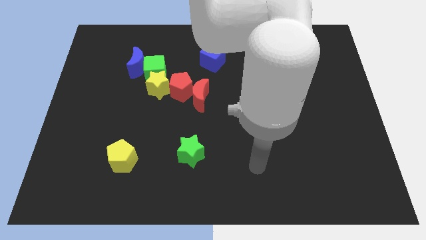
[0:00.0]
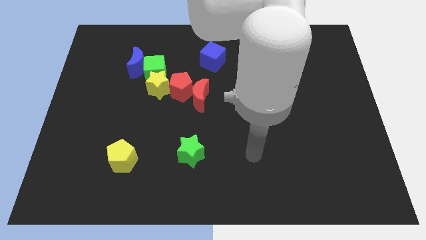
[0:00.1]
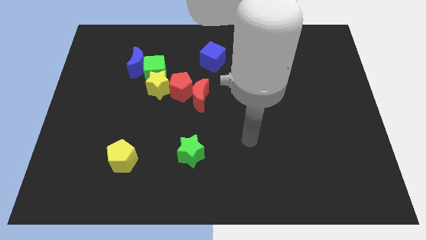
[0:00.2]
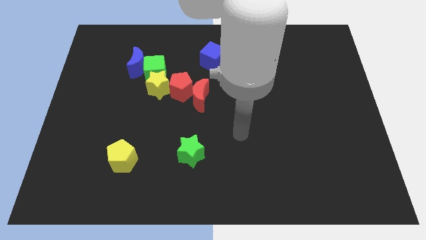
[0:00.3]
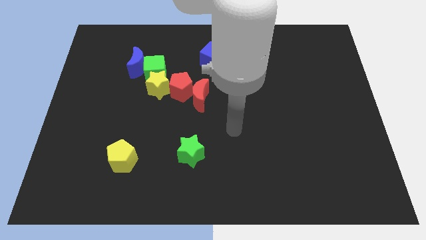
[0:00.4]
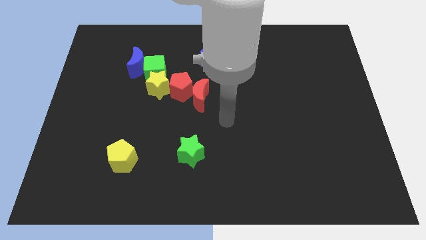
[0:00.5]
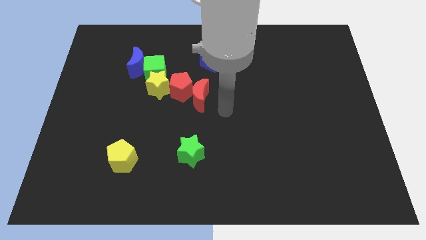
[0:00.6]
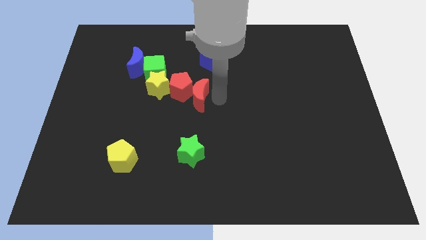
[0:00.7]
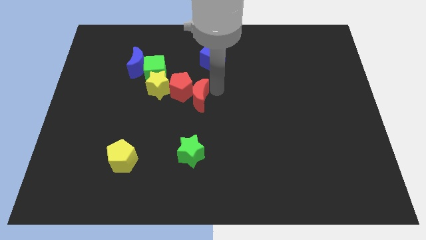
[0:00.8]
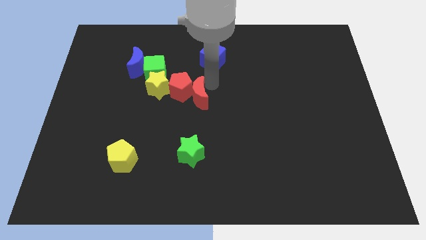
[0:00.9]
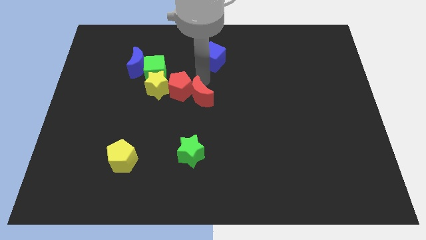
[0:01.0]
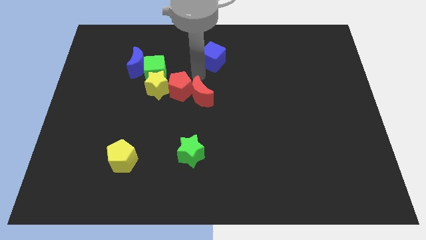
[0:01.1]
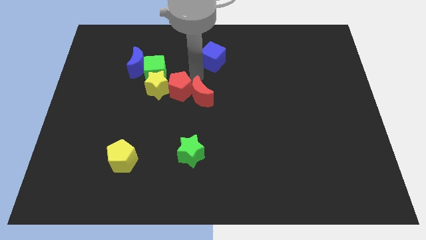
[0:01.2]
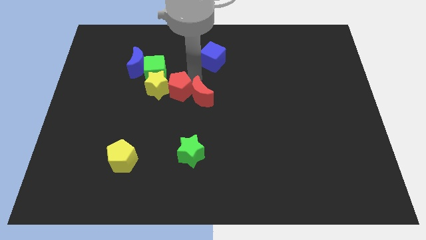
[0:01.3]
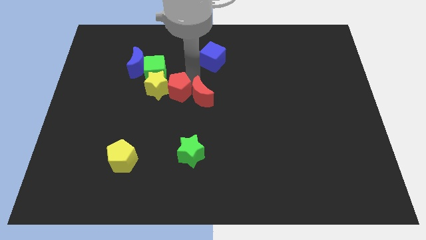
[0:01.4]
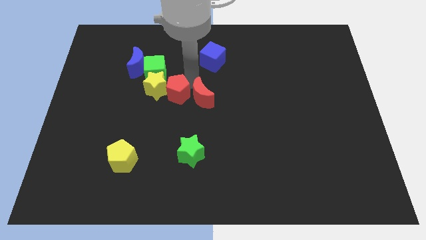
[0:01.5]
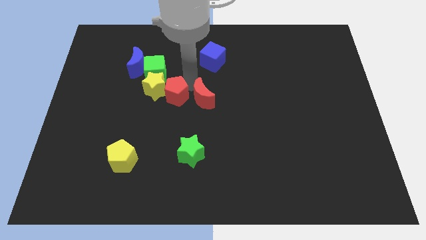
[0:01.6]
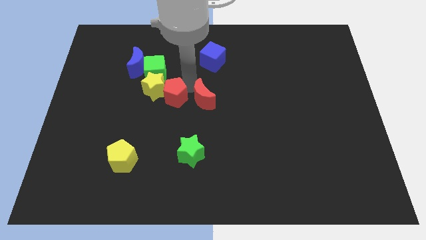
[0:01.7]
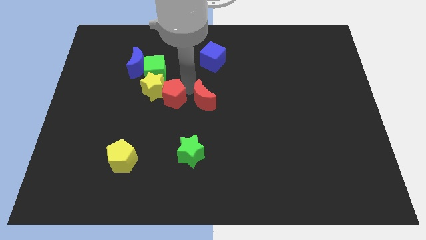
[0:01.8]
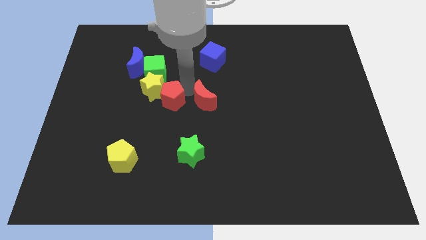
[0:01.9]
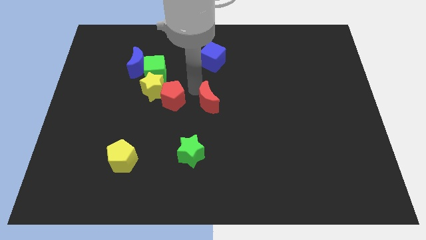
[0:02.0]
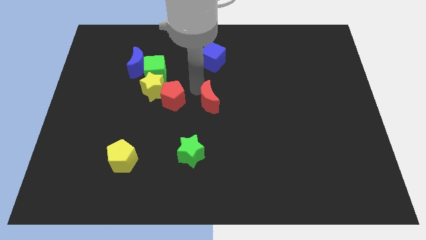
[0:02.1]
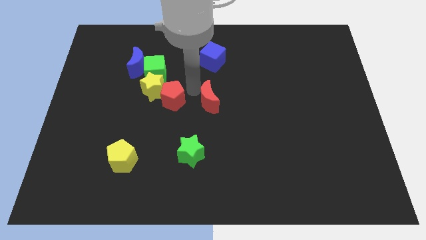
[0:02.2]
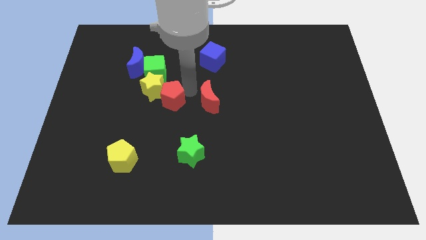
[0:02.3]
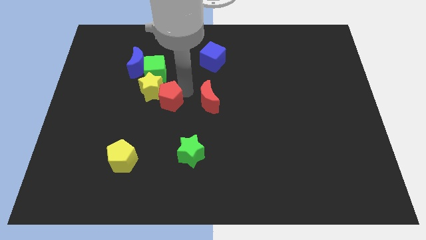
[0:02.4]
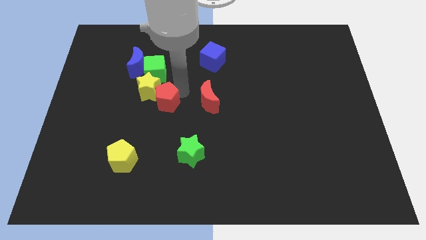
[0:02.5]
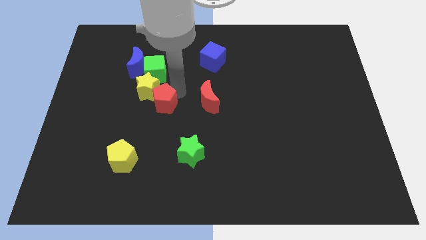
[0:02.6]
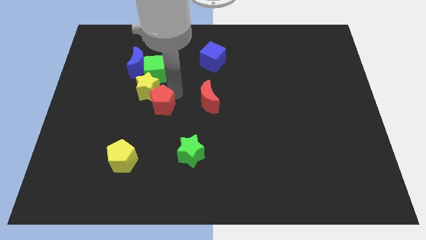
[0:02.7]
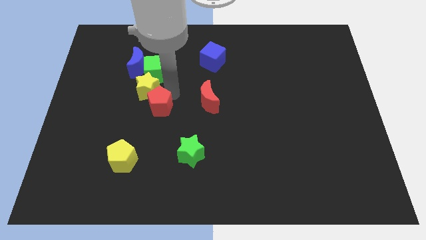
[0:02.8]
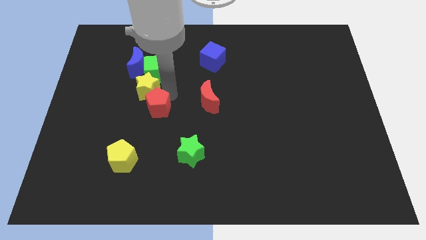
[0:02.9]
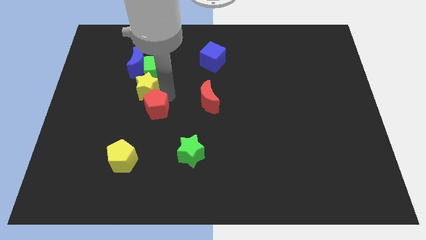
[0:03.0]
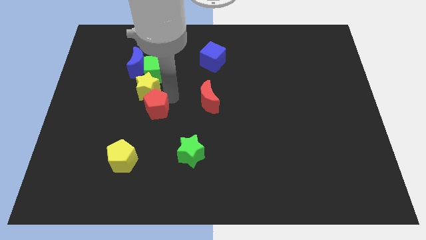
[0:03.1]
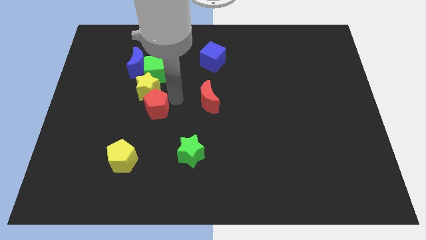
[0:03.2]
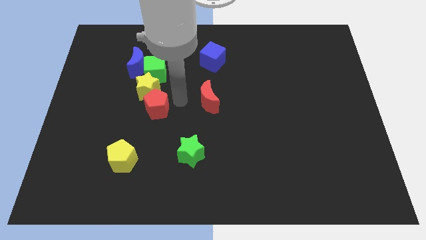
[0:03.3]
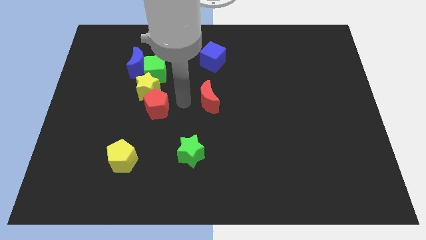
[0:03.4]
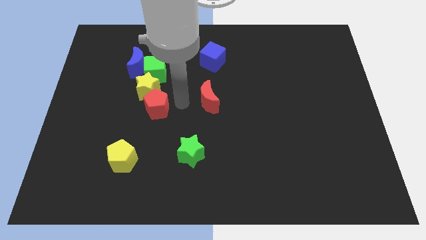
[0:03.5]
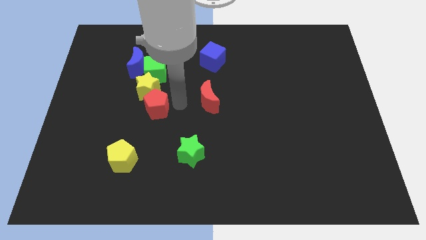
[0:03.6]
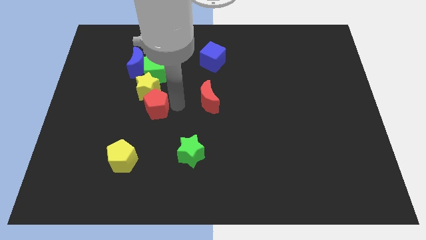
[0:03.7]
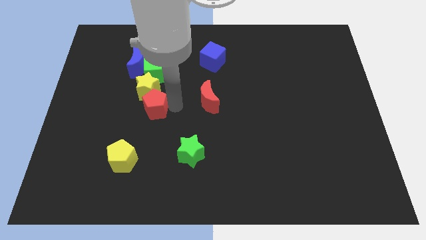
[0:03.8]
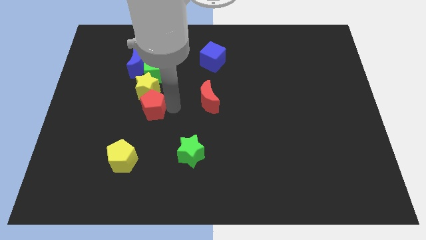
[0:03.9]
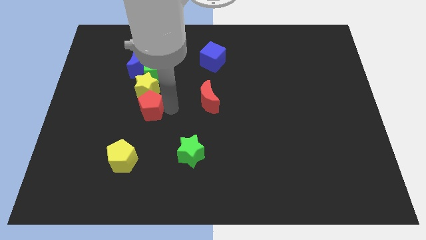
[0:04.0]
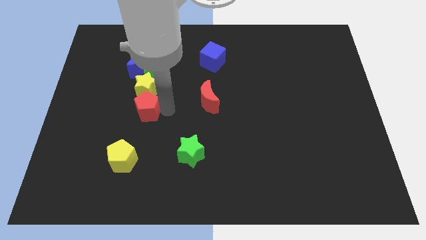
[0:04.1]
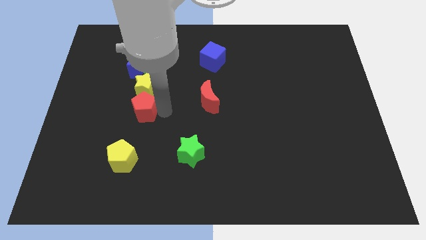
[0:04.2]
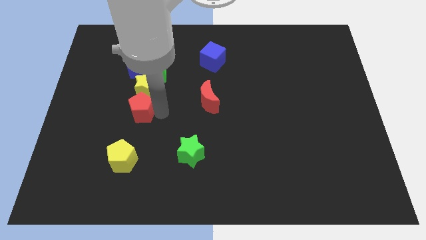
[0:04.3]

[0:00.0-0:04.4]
move the red pentagon a little to the left

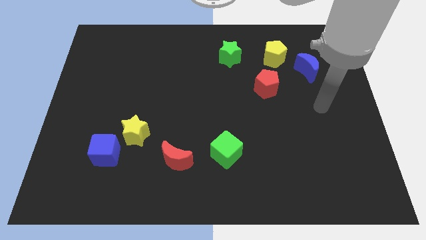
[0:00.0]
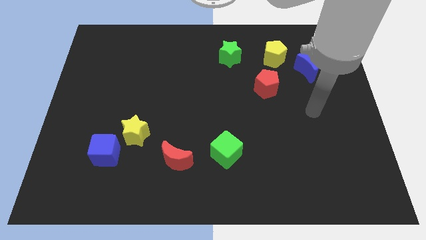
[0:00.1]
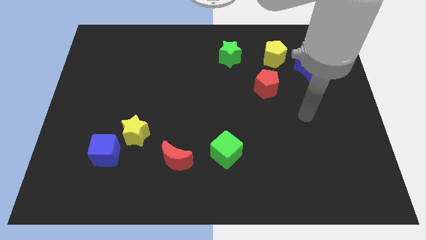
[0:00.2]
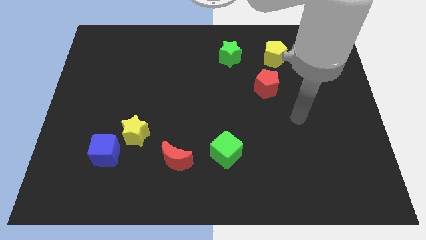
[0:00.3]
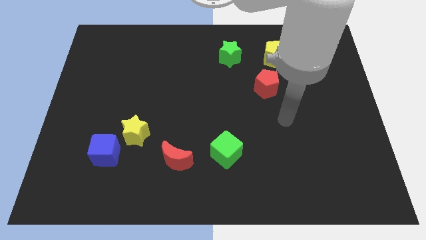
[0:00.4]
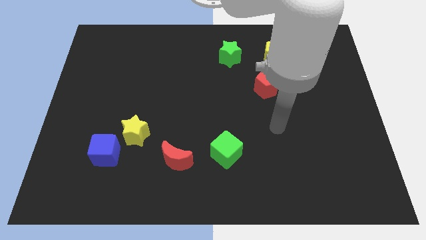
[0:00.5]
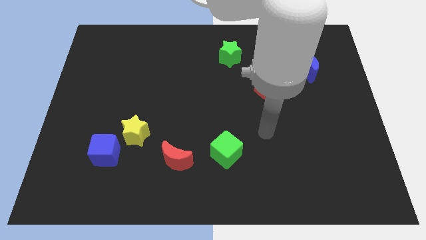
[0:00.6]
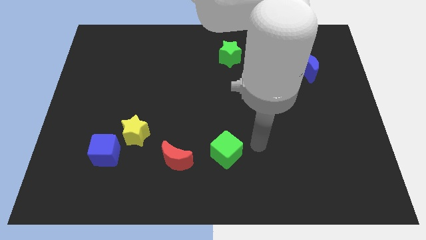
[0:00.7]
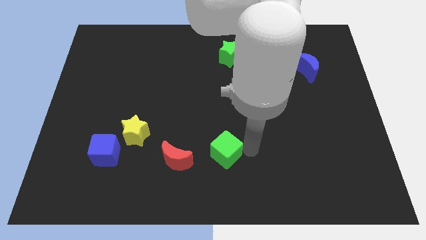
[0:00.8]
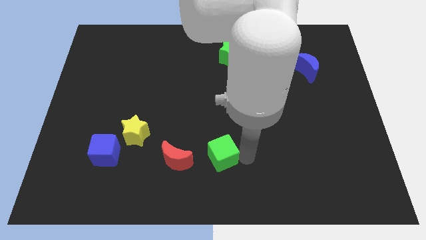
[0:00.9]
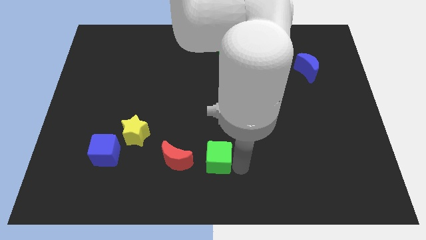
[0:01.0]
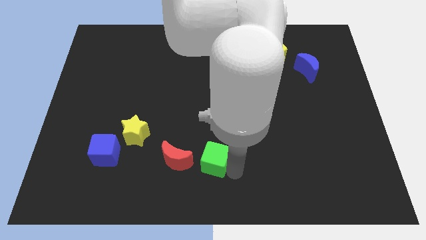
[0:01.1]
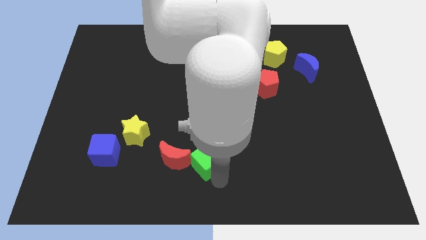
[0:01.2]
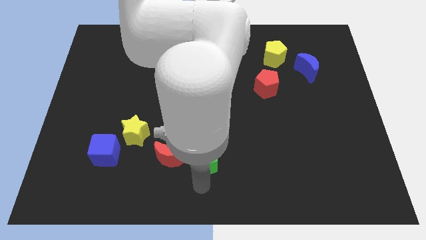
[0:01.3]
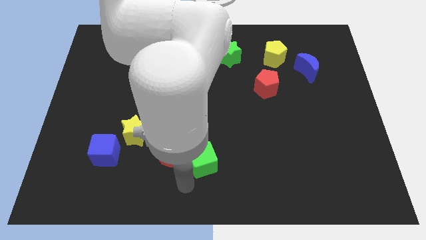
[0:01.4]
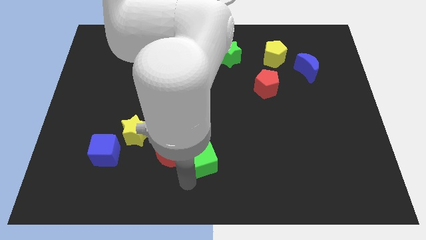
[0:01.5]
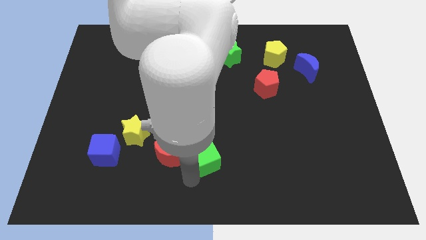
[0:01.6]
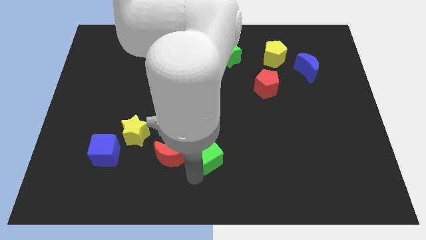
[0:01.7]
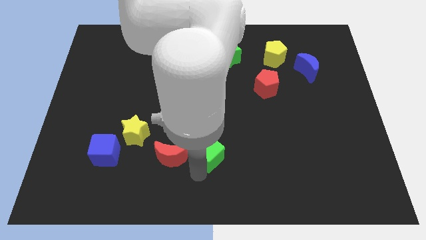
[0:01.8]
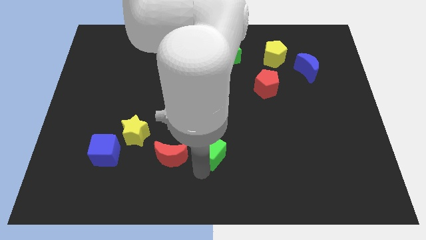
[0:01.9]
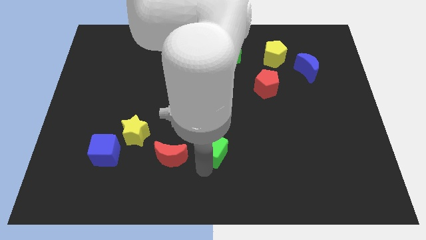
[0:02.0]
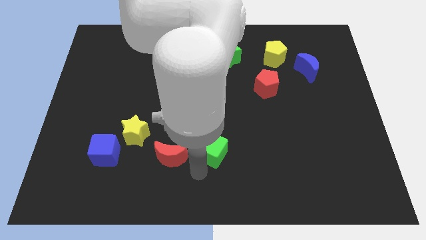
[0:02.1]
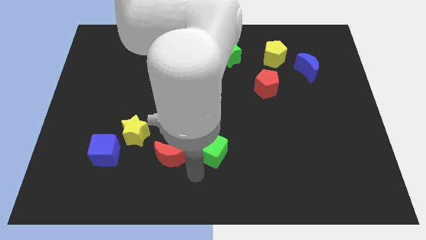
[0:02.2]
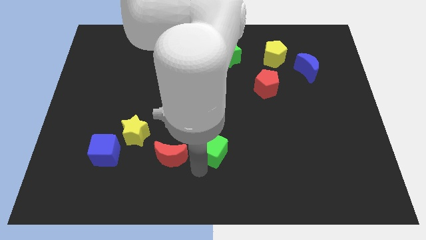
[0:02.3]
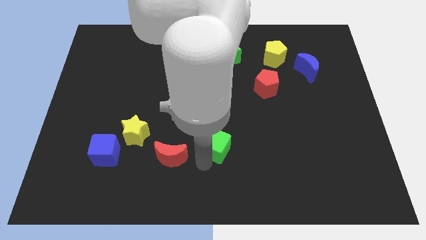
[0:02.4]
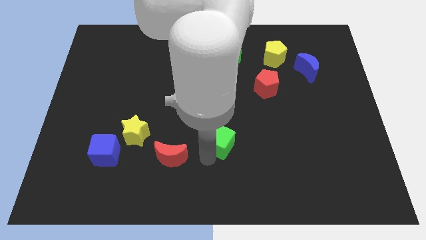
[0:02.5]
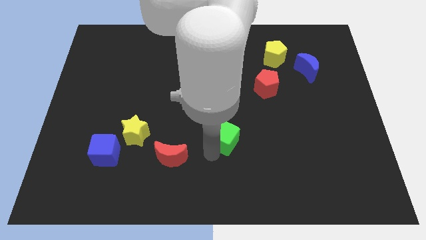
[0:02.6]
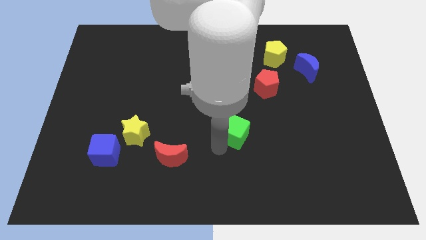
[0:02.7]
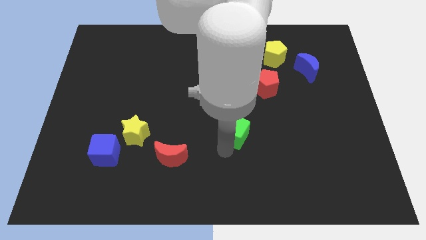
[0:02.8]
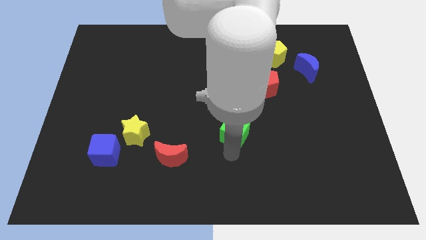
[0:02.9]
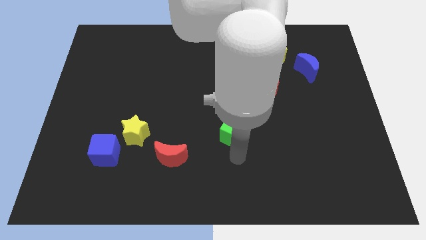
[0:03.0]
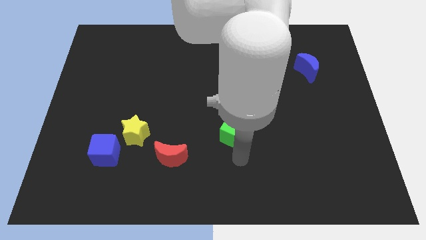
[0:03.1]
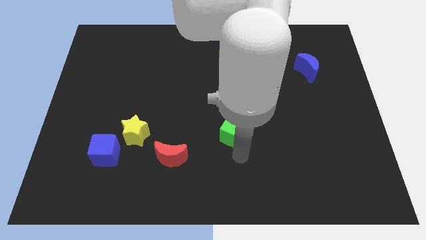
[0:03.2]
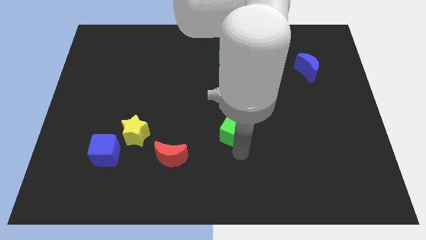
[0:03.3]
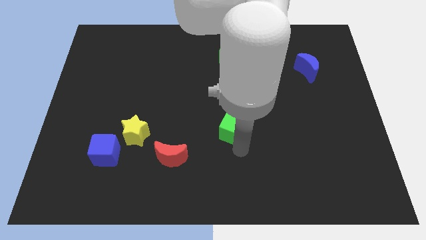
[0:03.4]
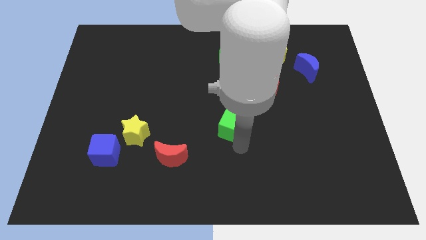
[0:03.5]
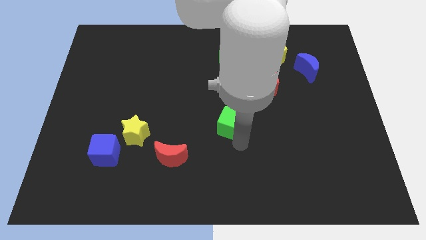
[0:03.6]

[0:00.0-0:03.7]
slide the green cube upwards a little bit

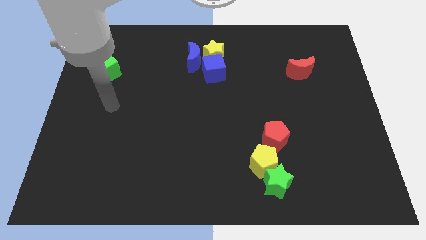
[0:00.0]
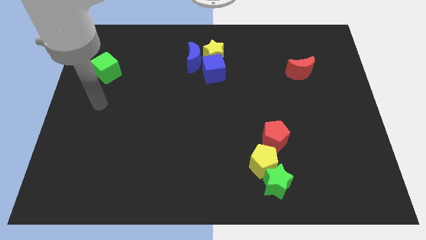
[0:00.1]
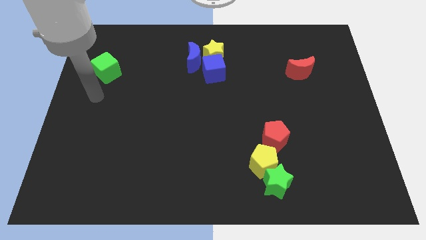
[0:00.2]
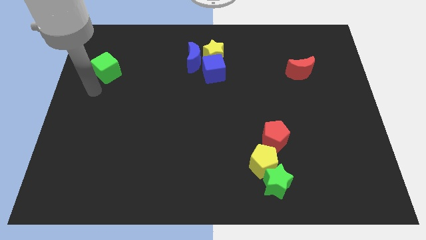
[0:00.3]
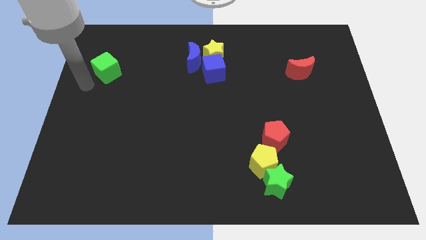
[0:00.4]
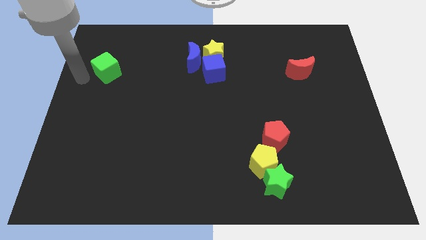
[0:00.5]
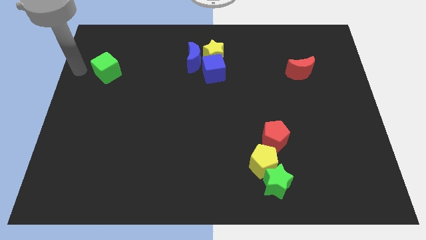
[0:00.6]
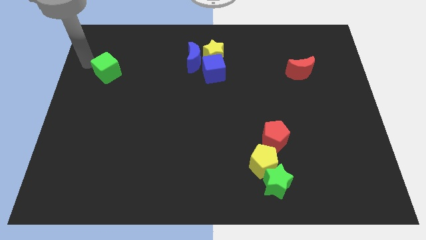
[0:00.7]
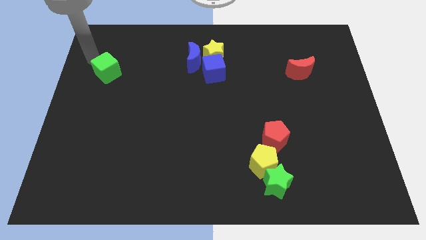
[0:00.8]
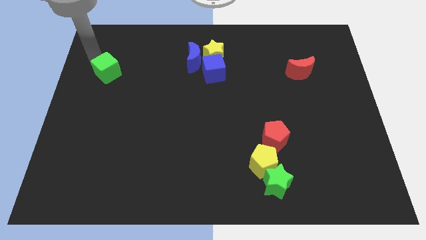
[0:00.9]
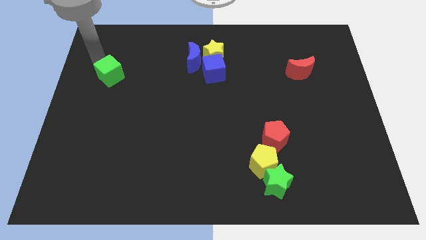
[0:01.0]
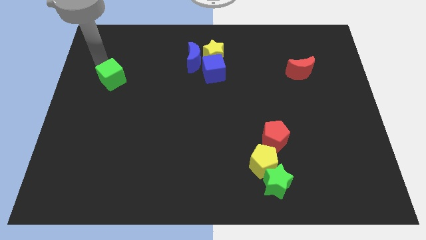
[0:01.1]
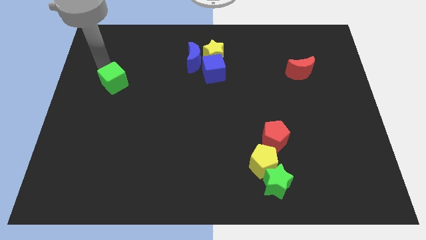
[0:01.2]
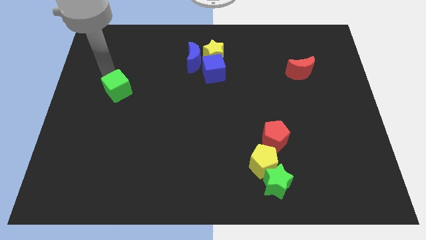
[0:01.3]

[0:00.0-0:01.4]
slightly move the green cube down and to the right
